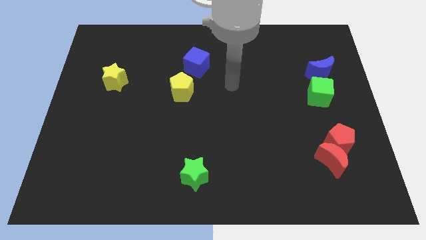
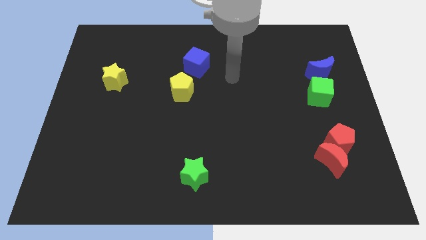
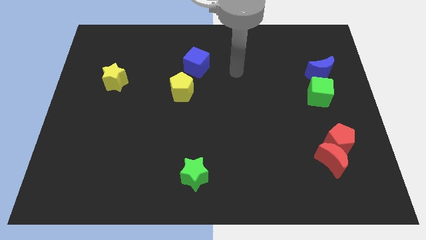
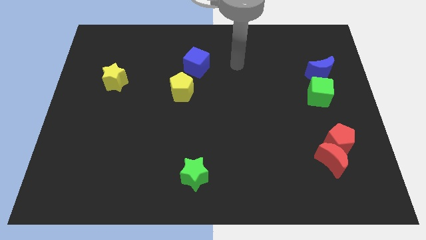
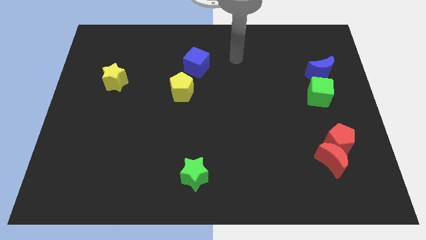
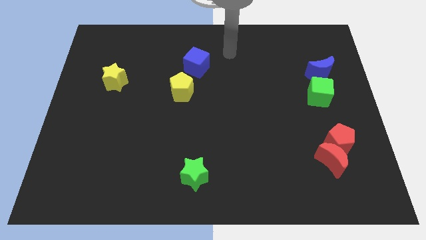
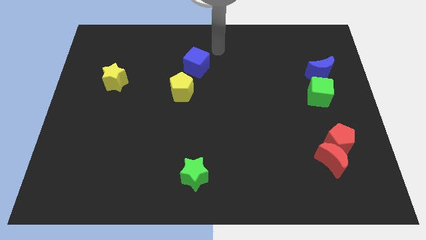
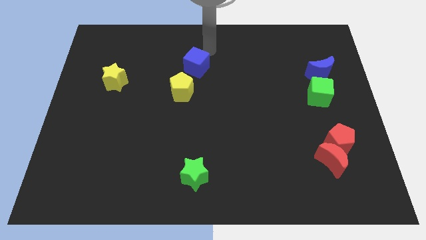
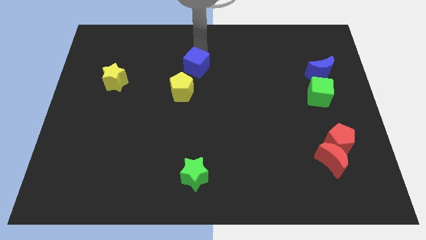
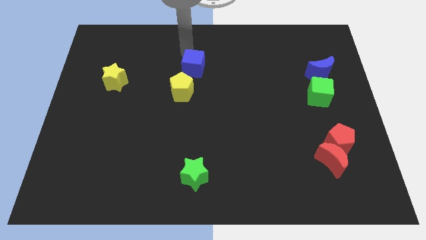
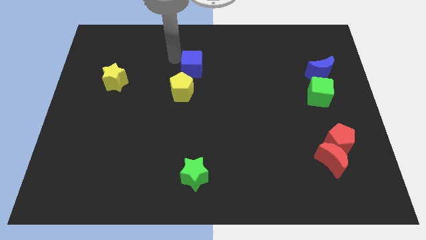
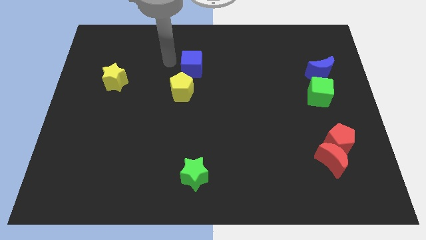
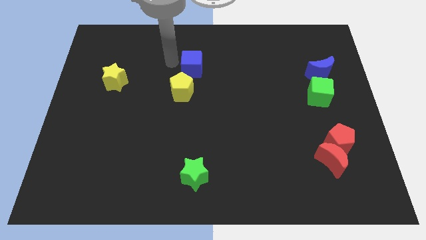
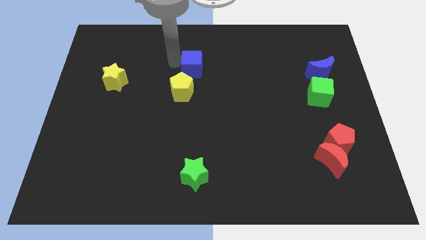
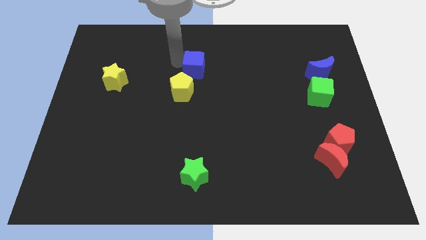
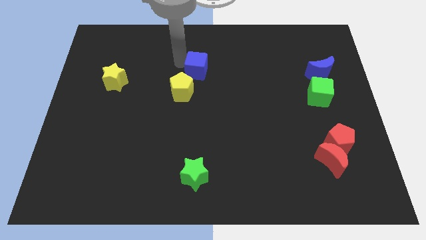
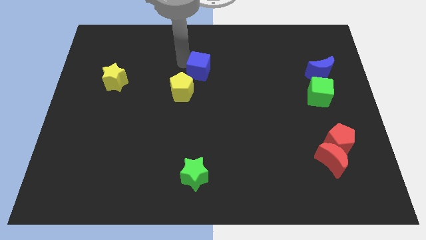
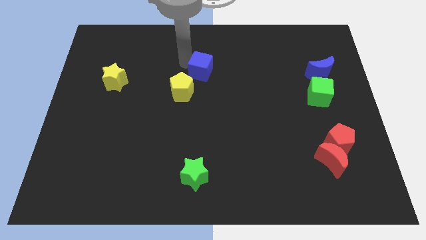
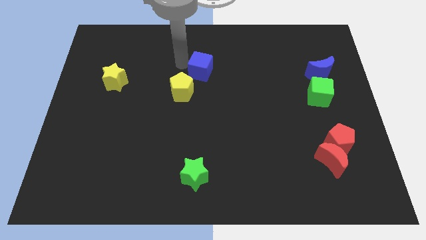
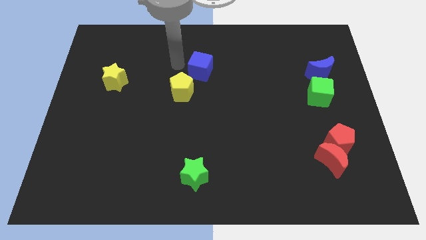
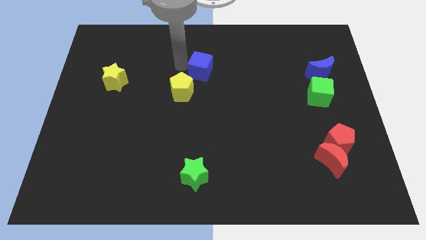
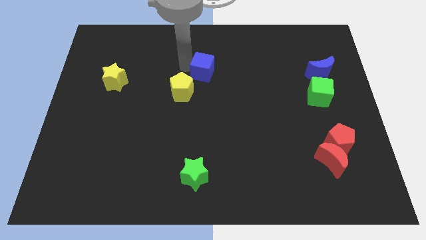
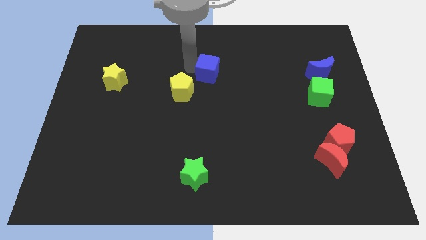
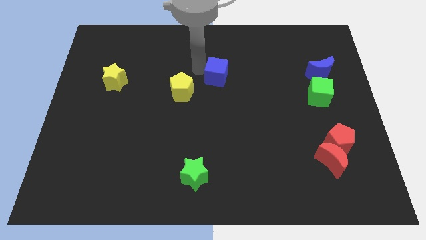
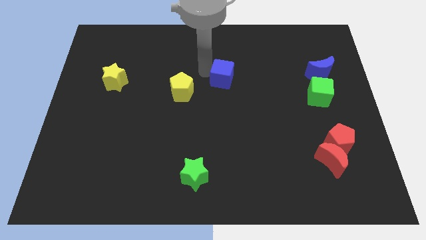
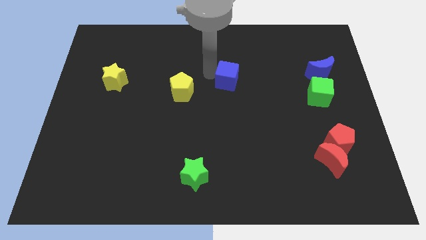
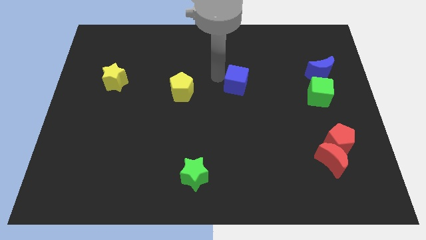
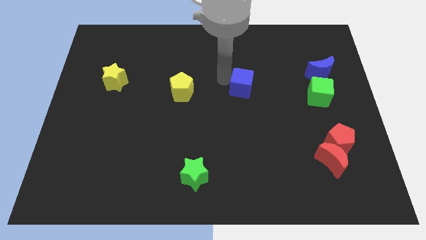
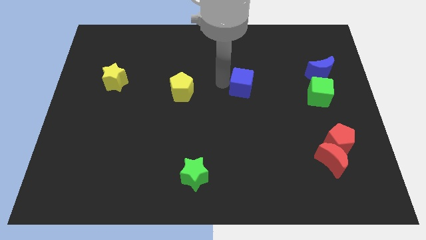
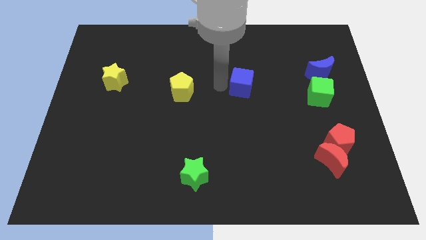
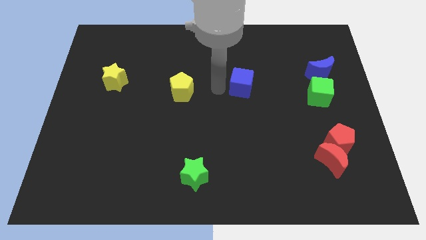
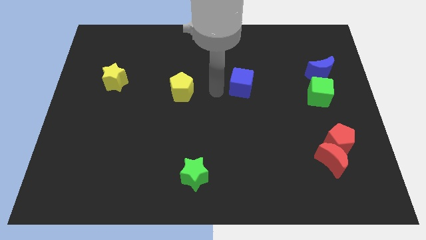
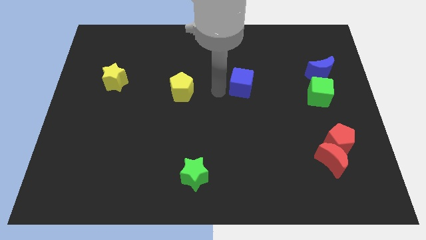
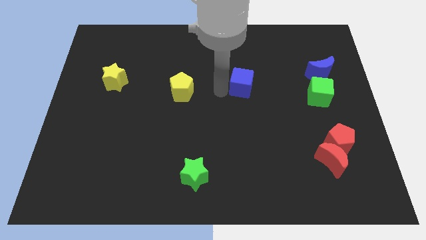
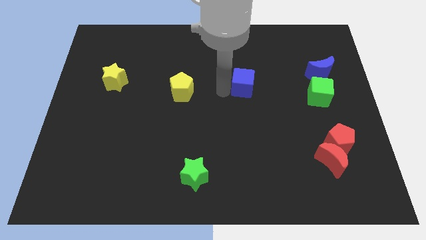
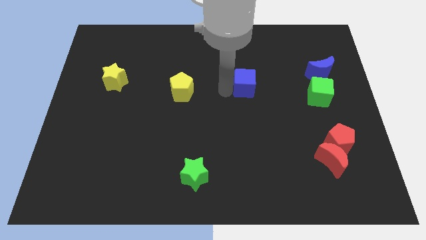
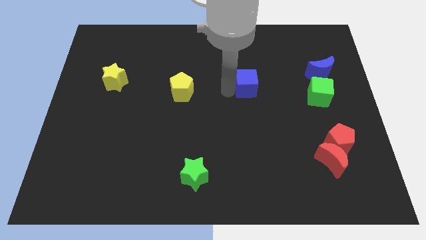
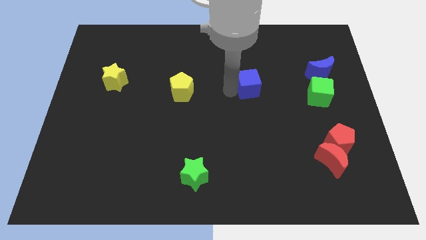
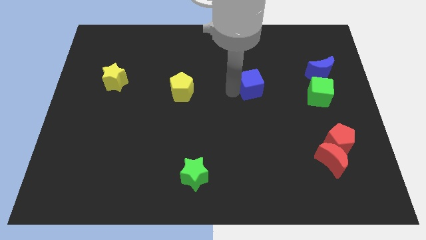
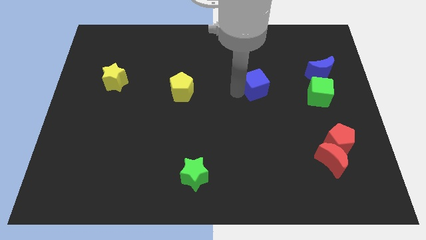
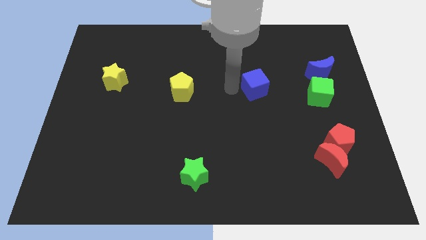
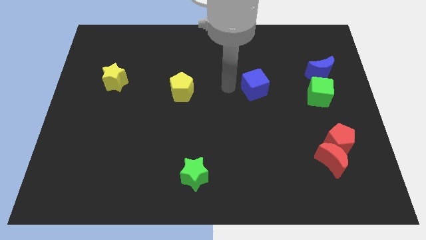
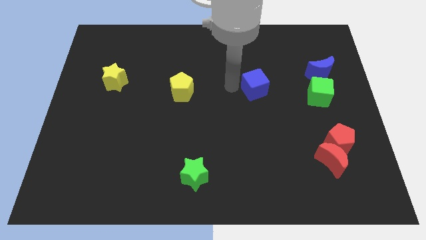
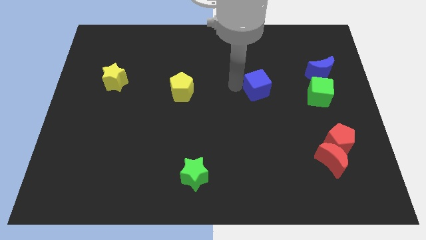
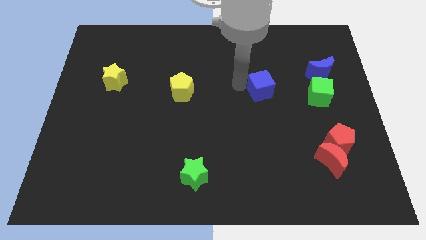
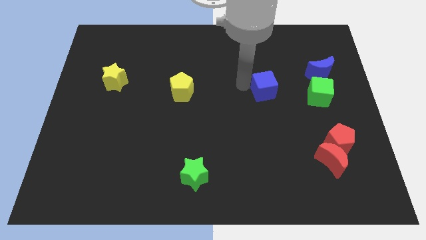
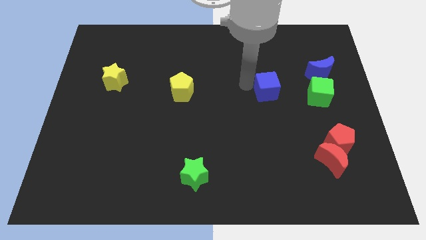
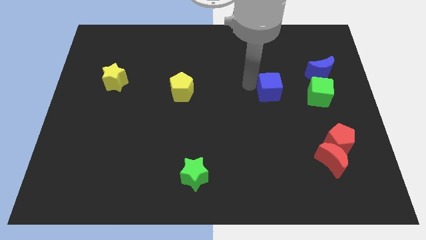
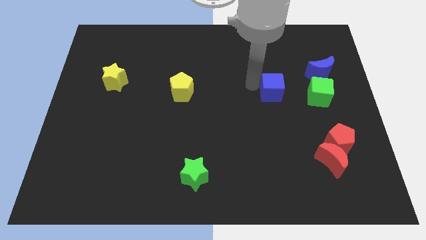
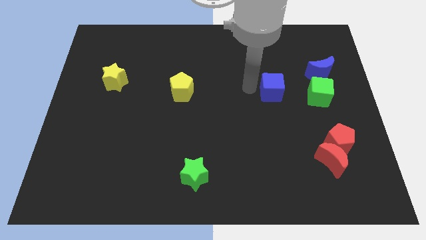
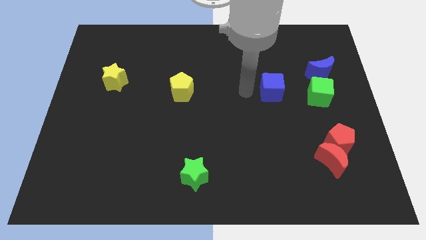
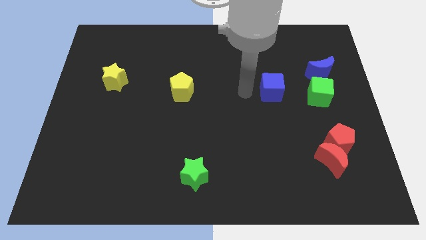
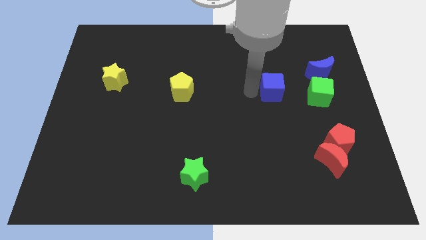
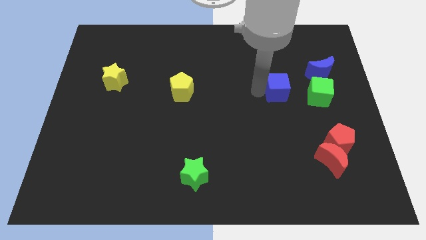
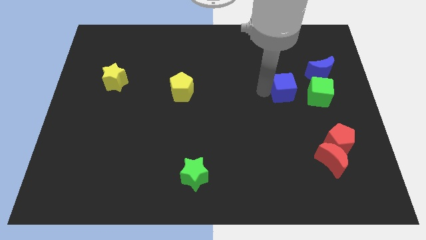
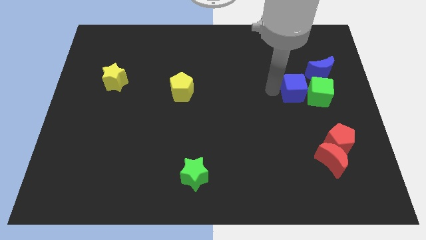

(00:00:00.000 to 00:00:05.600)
move the blue cube next to the green cube

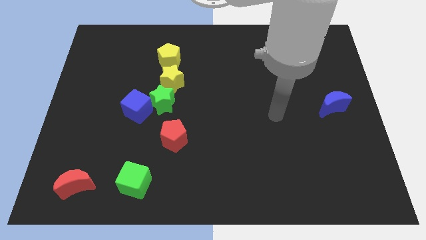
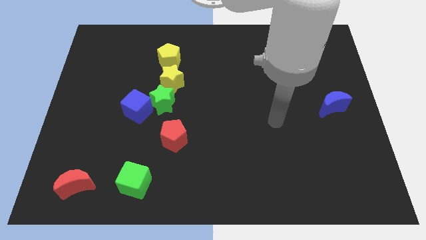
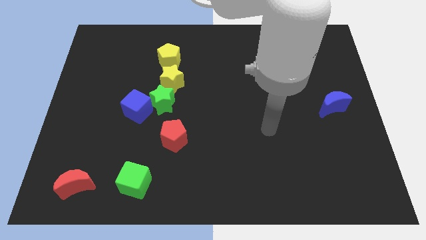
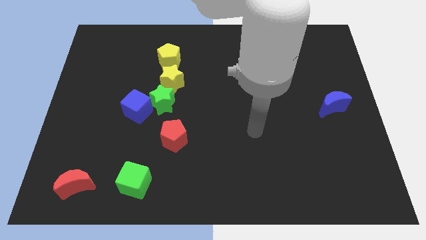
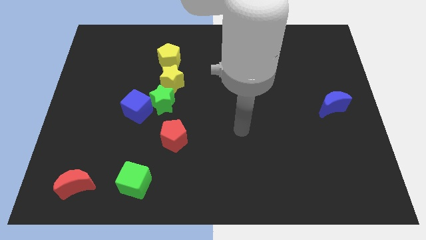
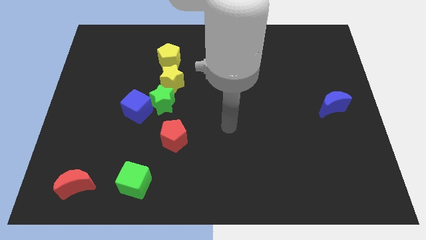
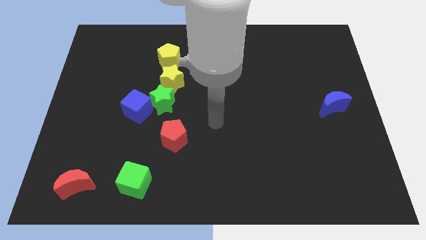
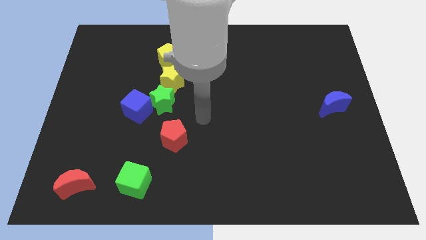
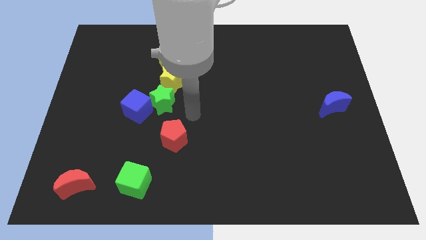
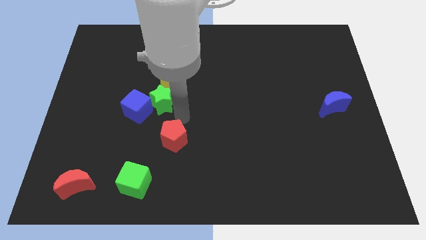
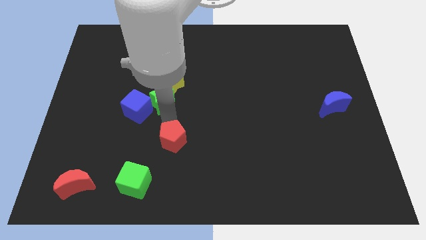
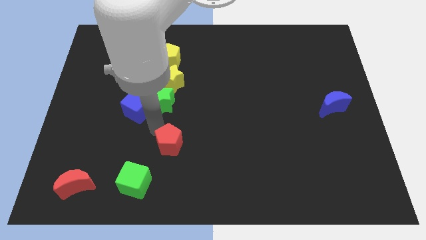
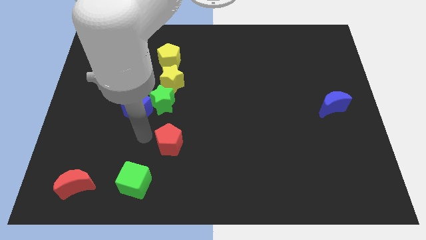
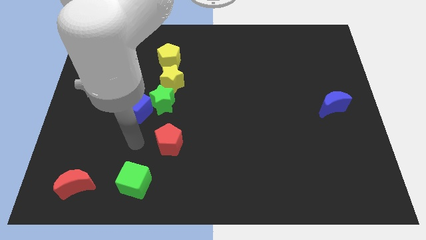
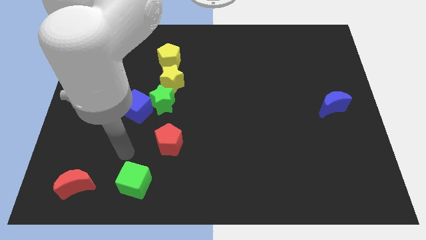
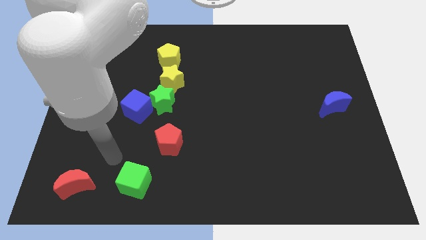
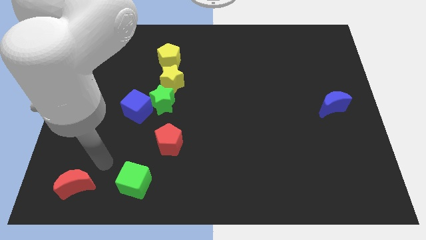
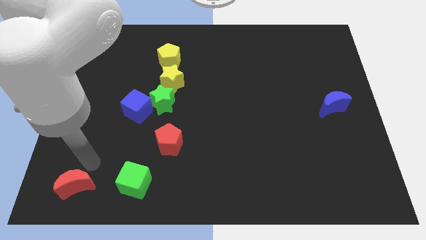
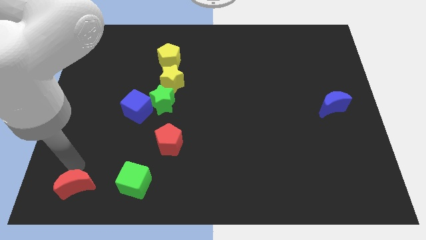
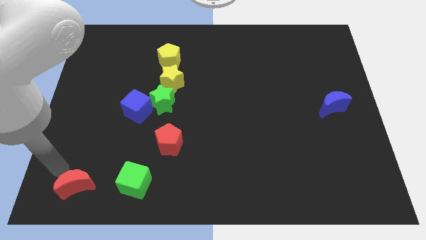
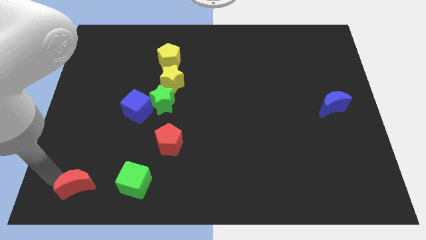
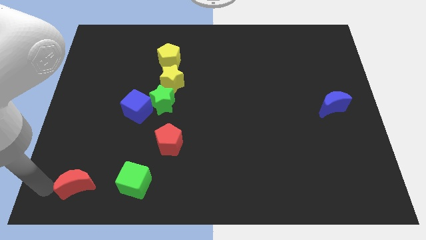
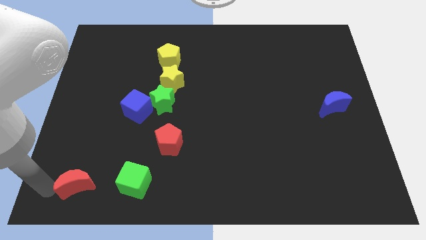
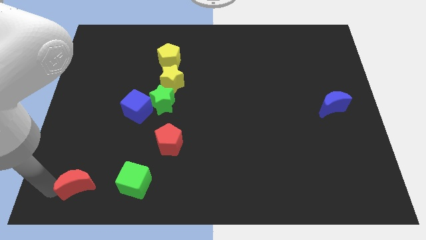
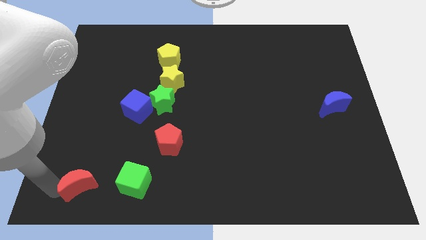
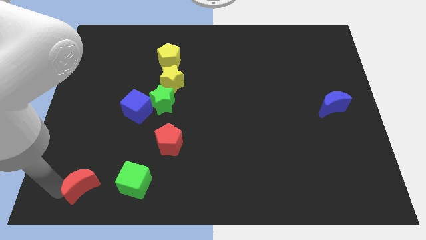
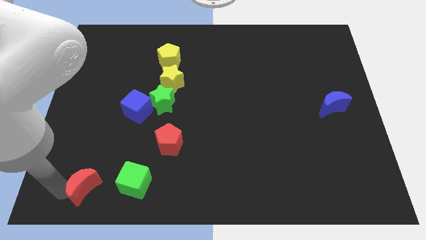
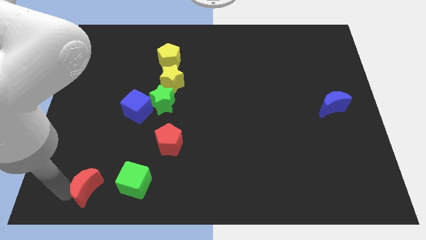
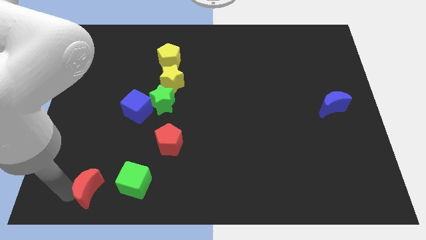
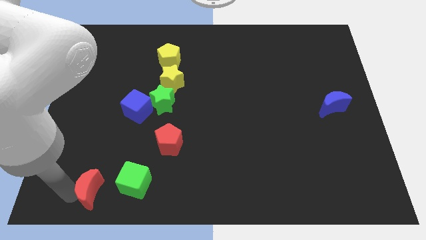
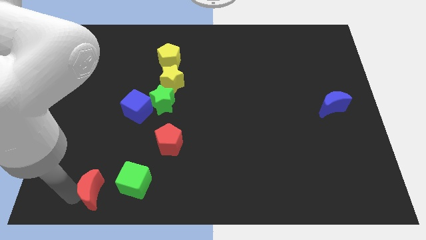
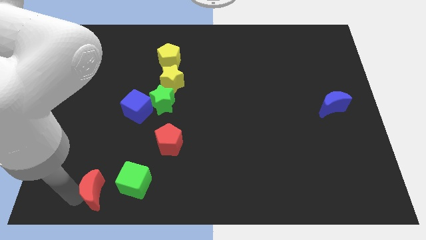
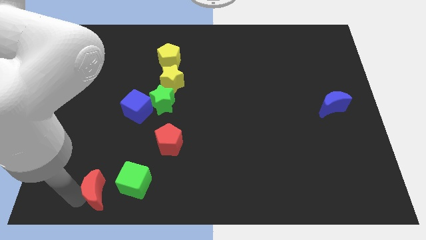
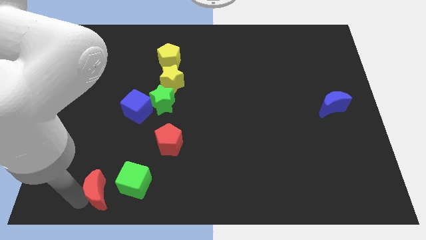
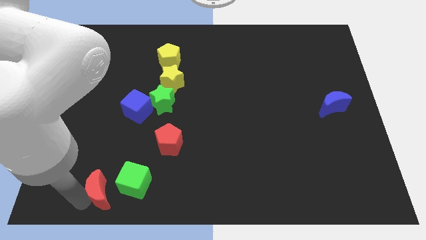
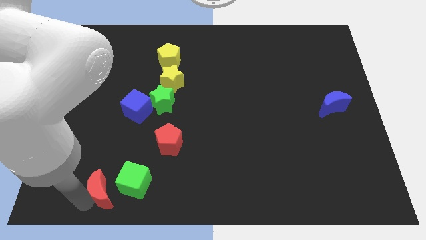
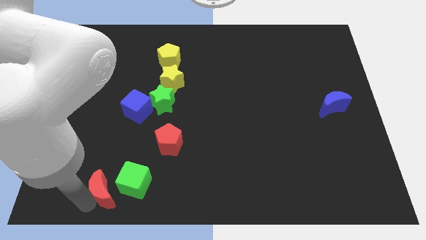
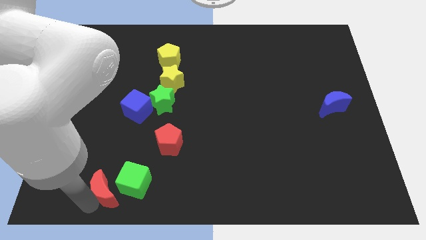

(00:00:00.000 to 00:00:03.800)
put the red moon next to the green cube
